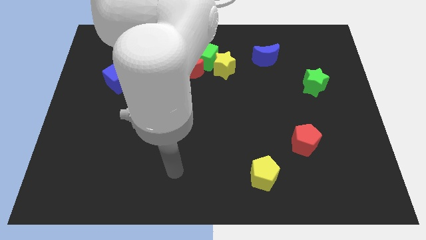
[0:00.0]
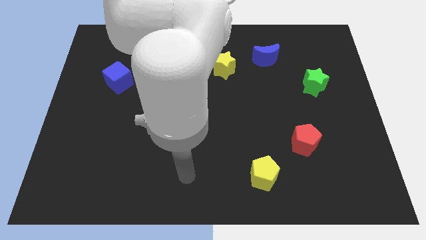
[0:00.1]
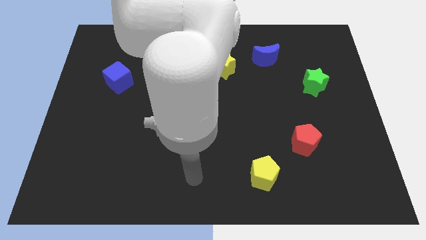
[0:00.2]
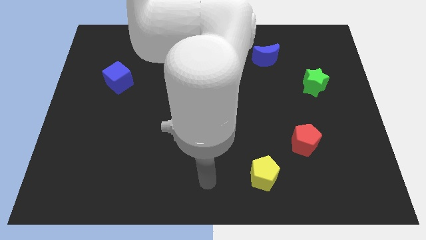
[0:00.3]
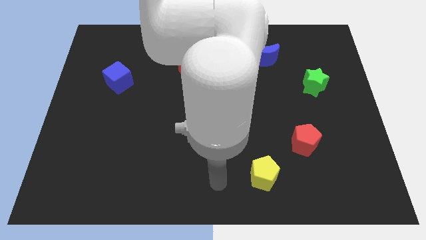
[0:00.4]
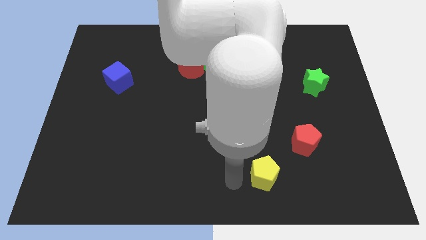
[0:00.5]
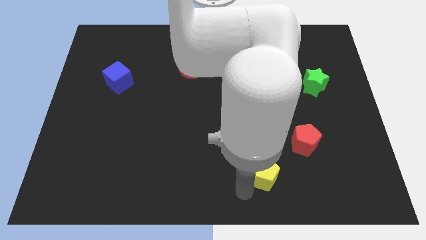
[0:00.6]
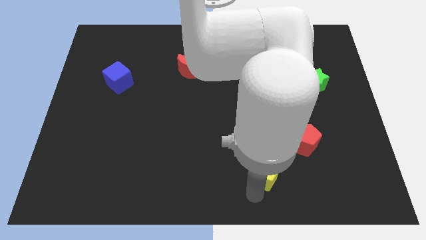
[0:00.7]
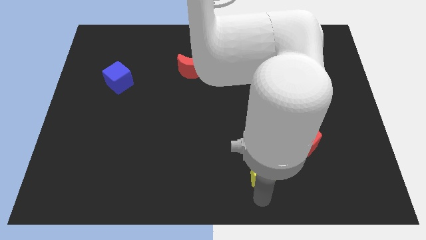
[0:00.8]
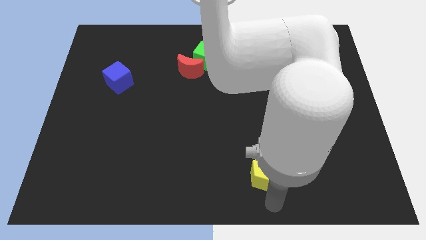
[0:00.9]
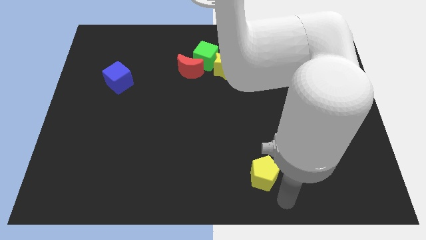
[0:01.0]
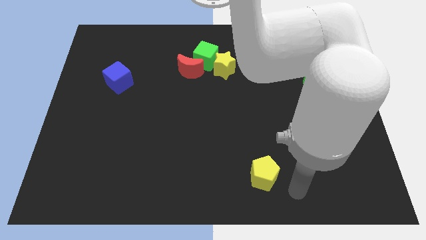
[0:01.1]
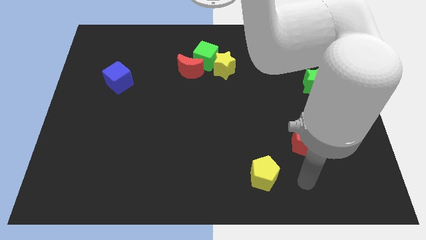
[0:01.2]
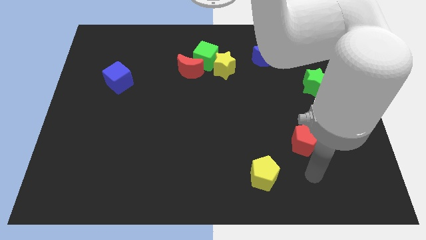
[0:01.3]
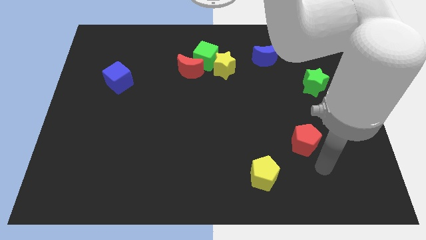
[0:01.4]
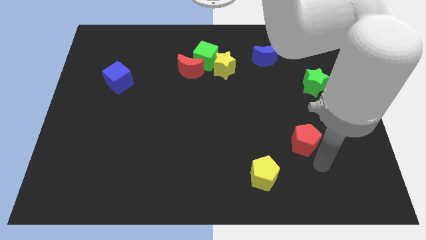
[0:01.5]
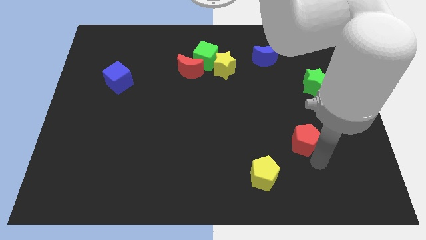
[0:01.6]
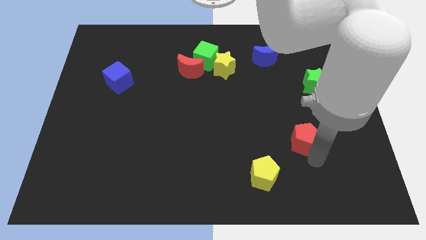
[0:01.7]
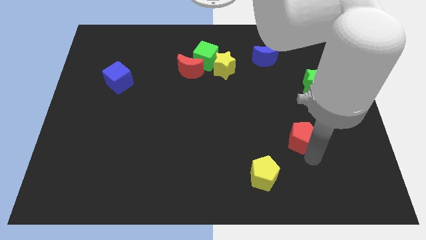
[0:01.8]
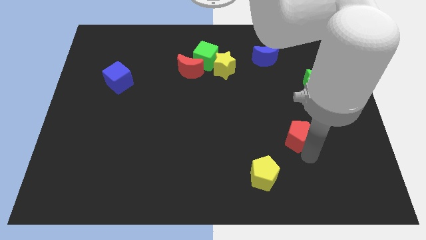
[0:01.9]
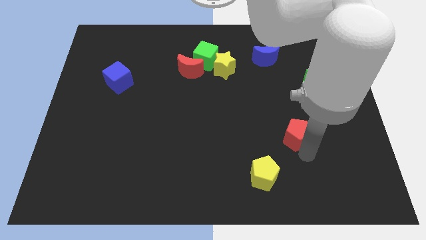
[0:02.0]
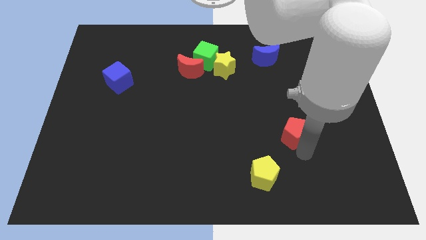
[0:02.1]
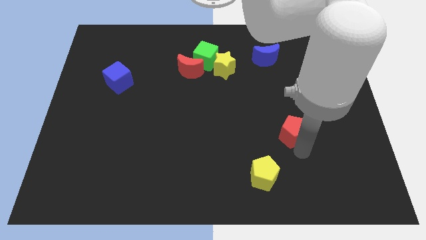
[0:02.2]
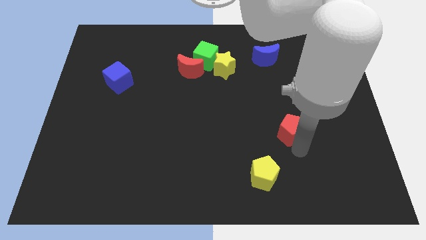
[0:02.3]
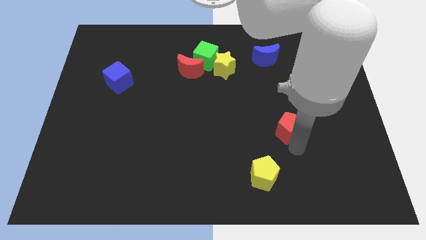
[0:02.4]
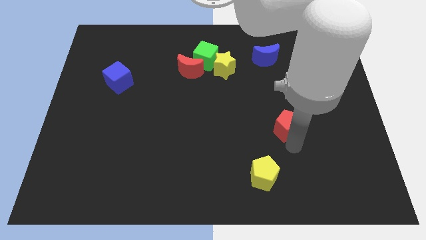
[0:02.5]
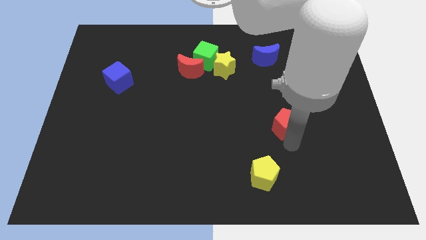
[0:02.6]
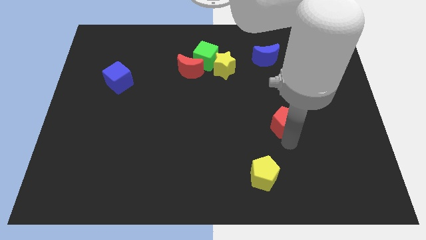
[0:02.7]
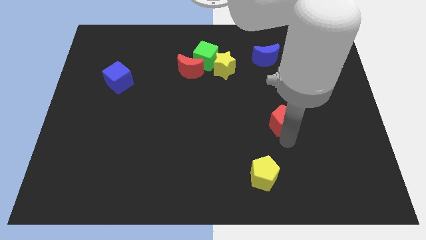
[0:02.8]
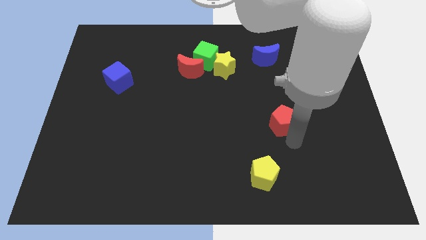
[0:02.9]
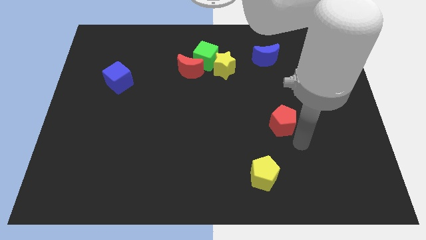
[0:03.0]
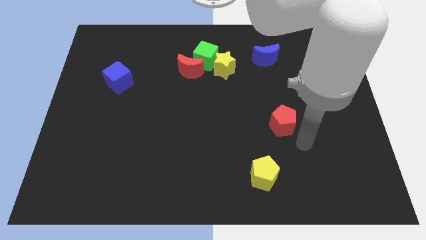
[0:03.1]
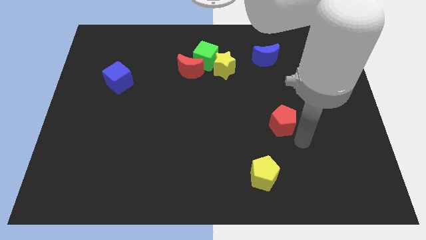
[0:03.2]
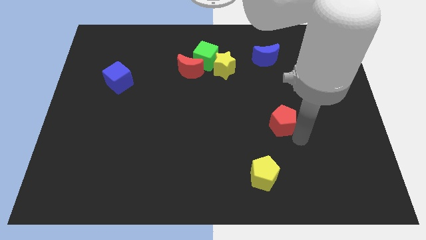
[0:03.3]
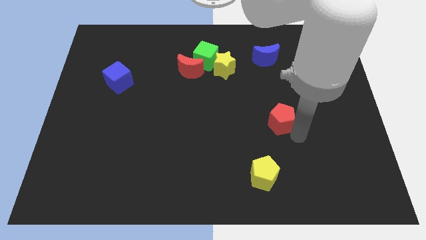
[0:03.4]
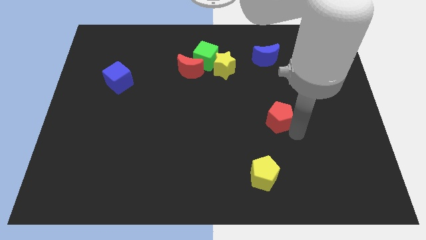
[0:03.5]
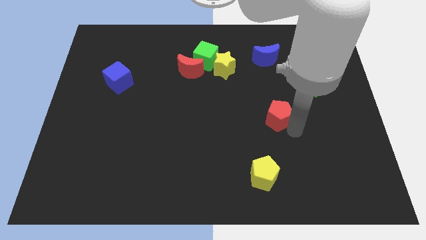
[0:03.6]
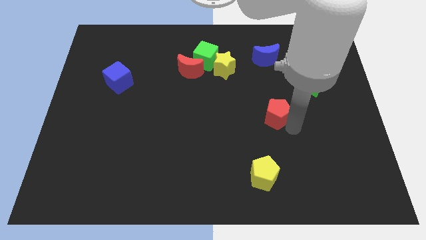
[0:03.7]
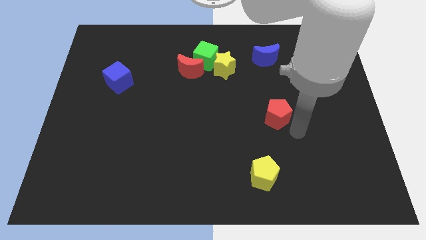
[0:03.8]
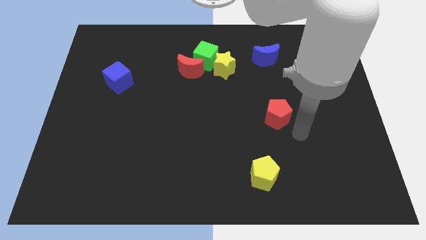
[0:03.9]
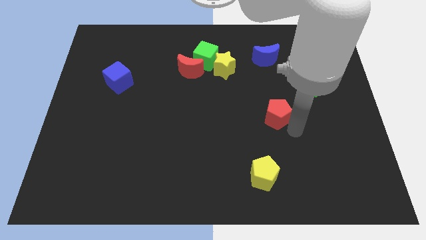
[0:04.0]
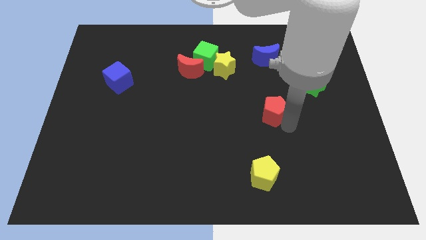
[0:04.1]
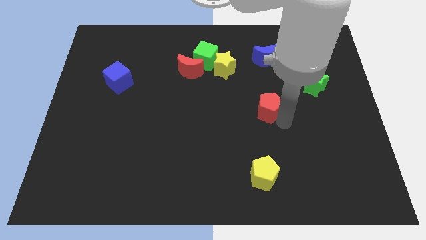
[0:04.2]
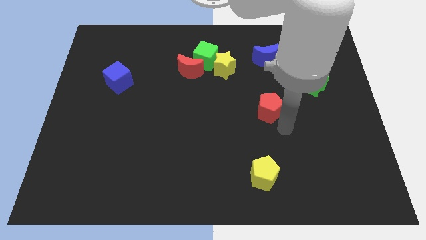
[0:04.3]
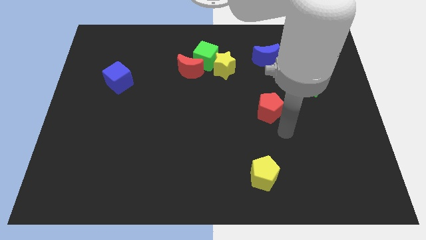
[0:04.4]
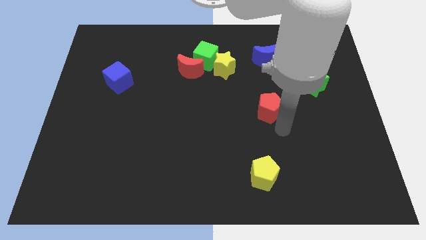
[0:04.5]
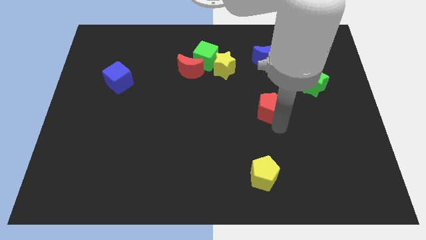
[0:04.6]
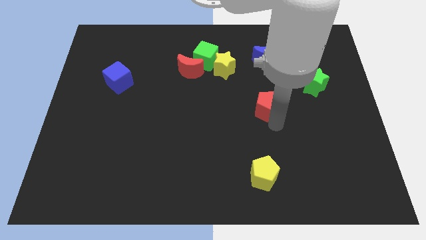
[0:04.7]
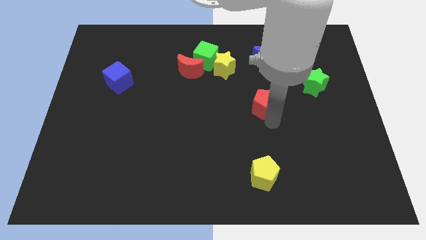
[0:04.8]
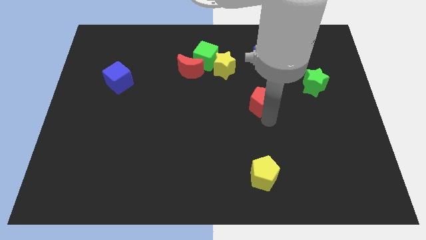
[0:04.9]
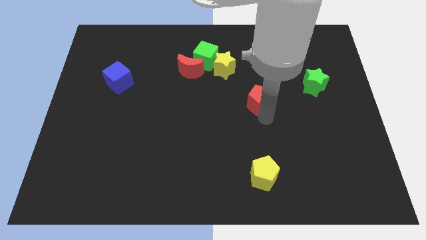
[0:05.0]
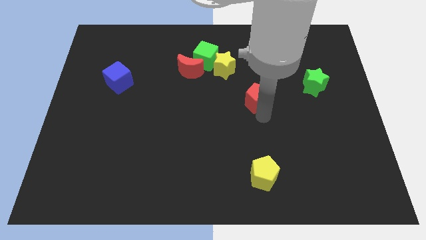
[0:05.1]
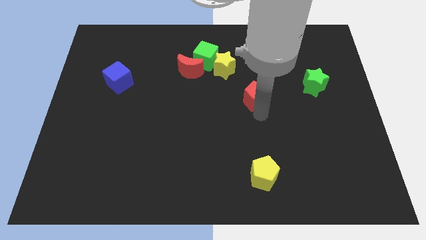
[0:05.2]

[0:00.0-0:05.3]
move the red pentagon to the bottom right of the yellow star

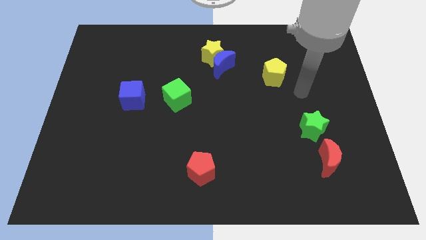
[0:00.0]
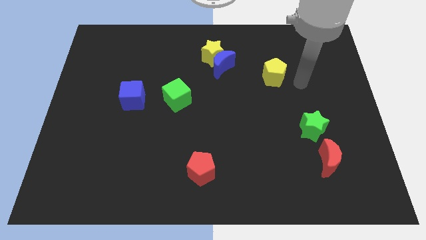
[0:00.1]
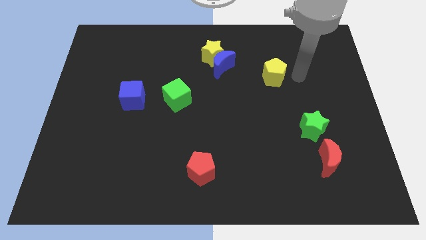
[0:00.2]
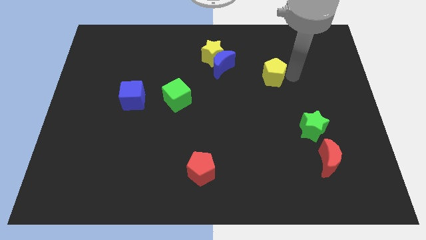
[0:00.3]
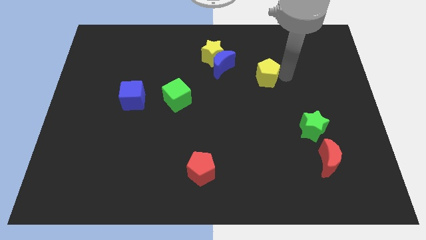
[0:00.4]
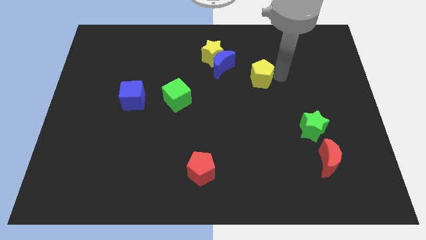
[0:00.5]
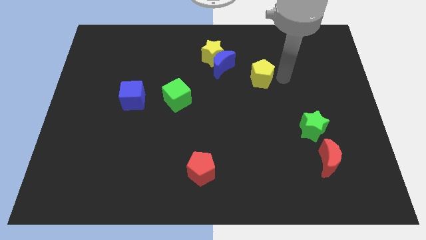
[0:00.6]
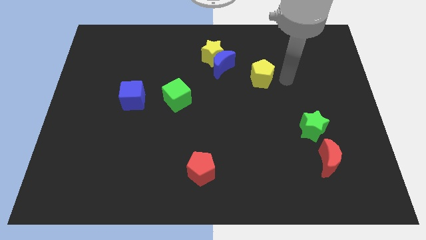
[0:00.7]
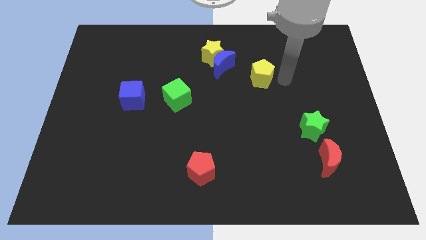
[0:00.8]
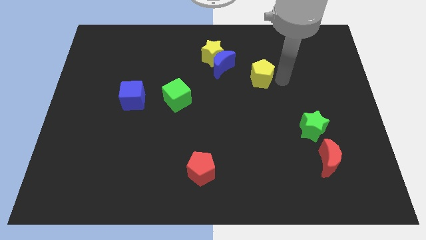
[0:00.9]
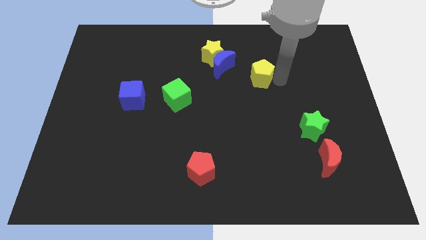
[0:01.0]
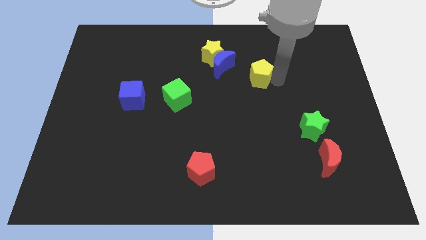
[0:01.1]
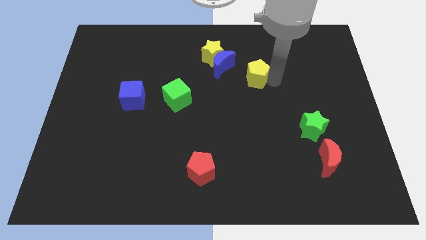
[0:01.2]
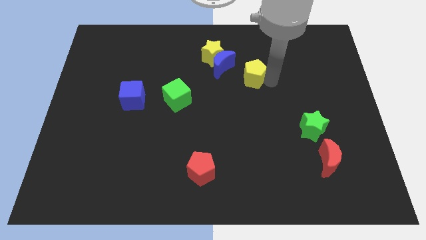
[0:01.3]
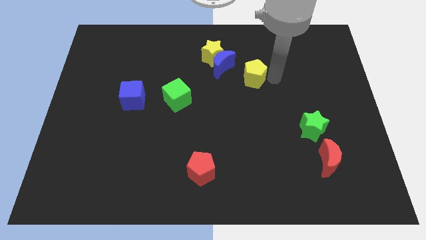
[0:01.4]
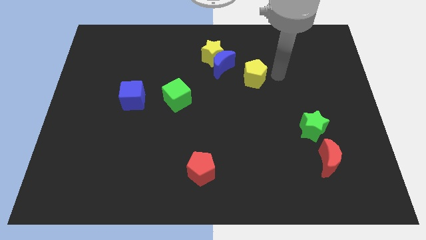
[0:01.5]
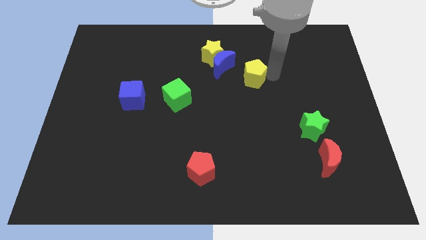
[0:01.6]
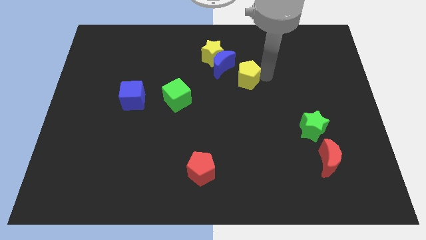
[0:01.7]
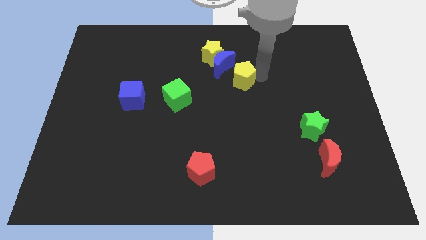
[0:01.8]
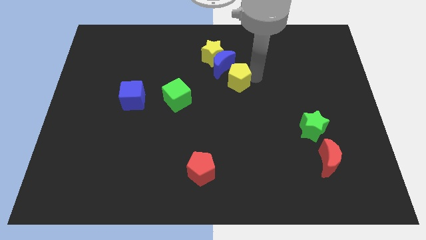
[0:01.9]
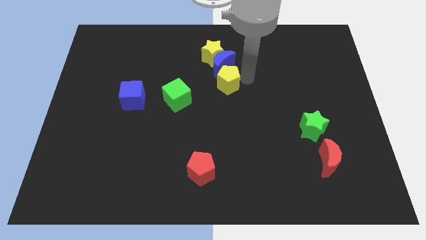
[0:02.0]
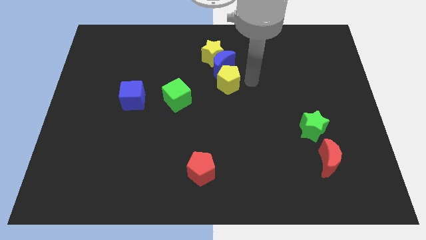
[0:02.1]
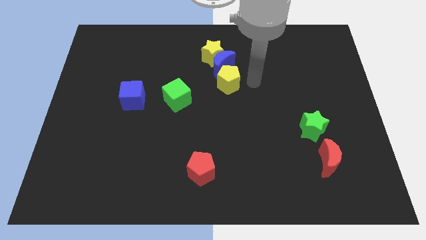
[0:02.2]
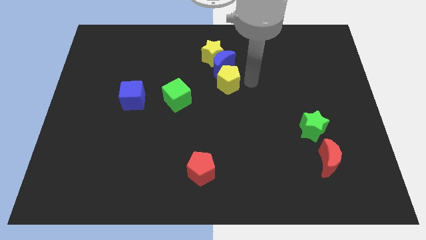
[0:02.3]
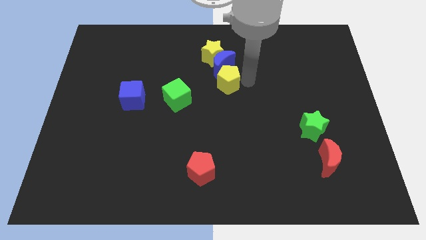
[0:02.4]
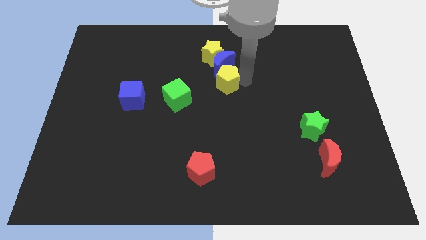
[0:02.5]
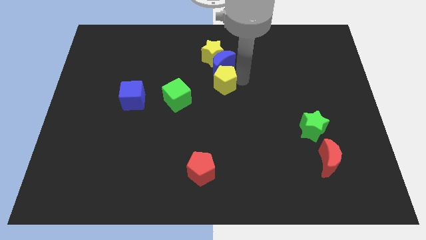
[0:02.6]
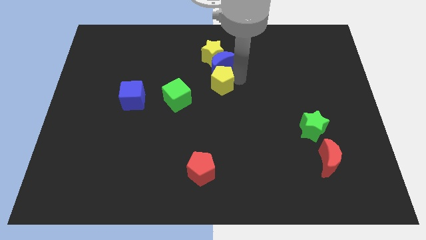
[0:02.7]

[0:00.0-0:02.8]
move the yellow pentagon to the top right of the green cube

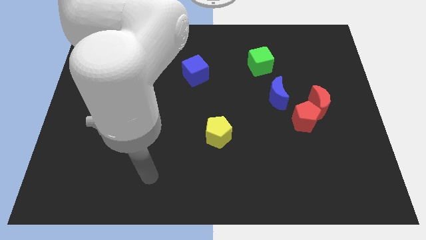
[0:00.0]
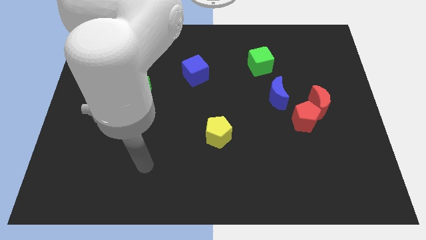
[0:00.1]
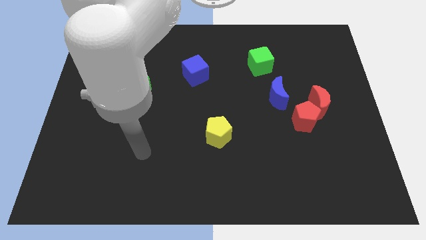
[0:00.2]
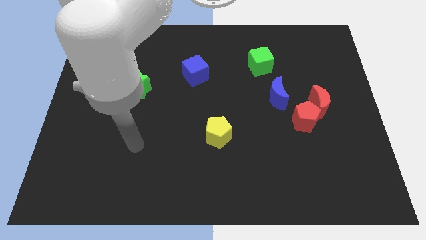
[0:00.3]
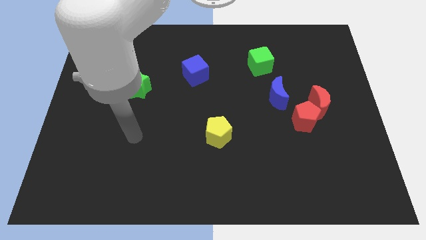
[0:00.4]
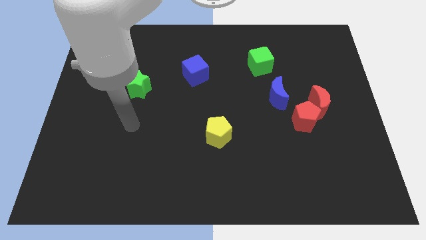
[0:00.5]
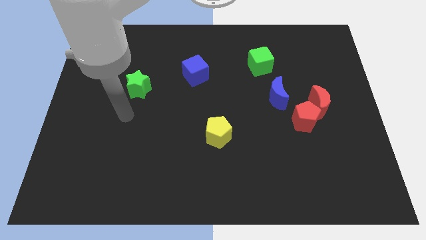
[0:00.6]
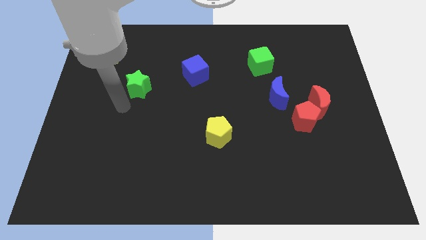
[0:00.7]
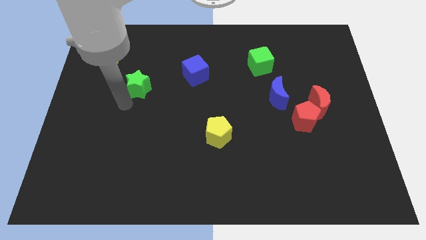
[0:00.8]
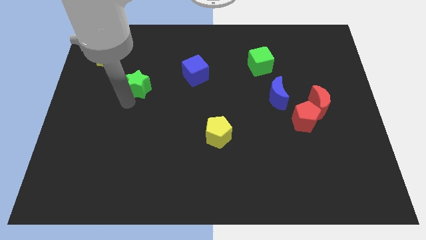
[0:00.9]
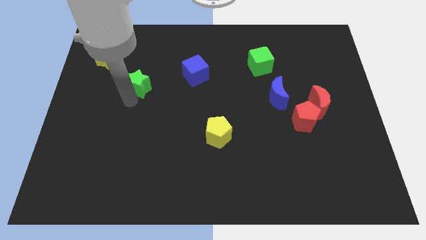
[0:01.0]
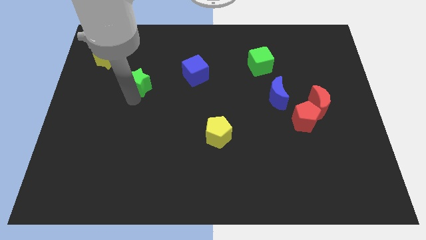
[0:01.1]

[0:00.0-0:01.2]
push the green star left of the blue cube
